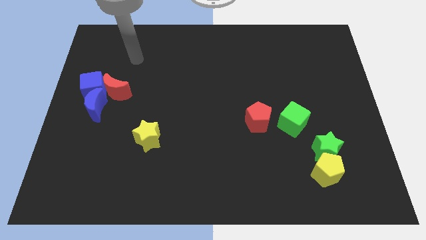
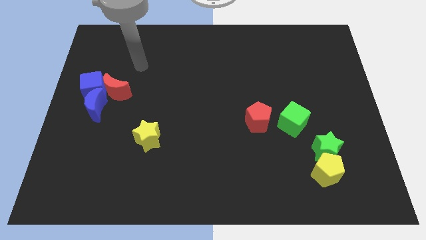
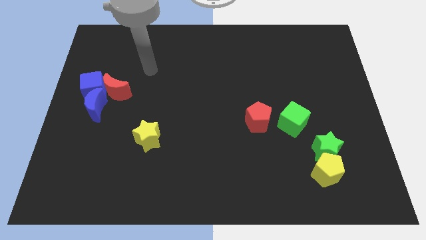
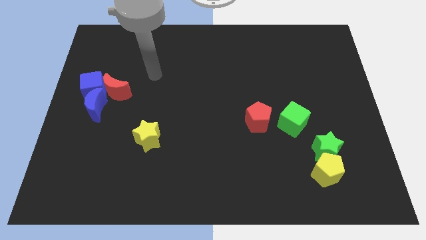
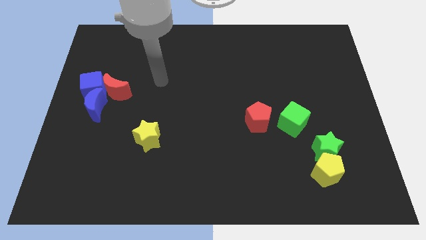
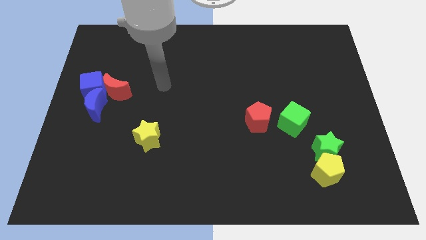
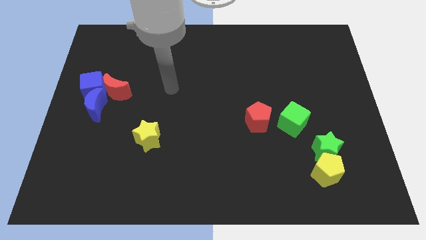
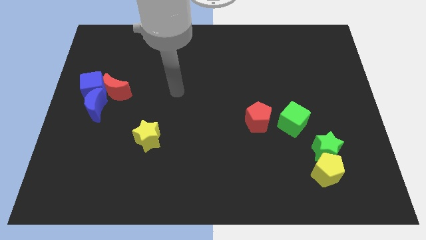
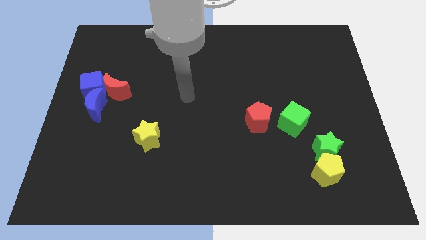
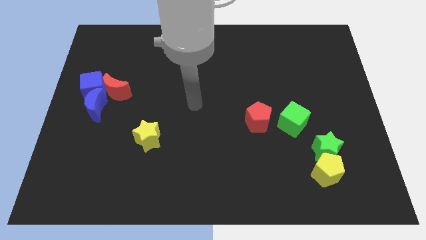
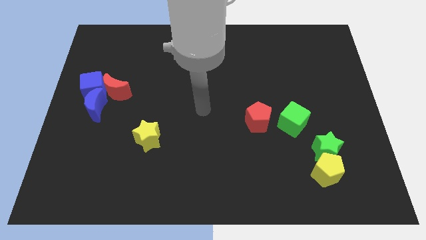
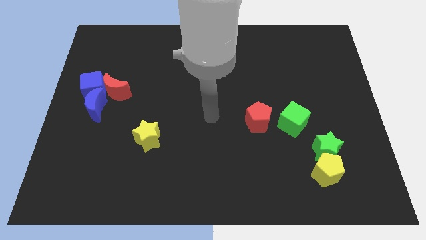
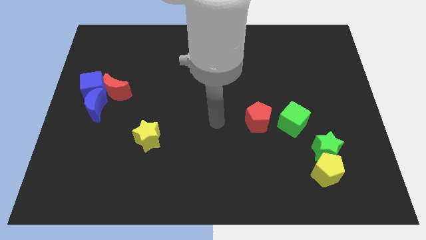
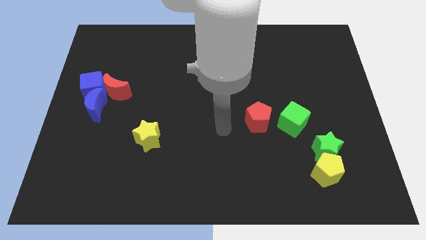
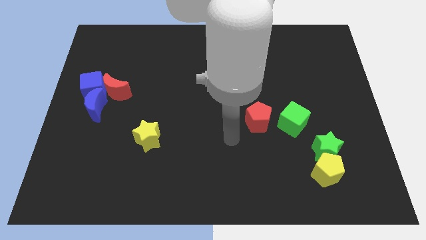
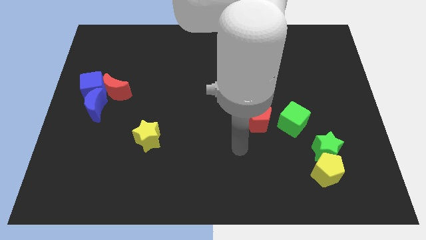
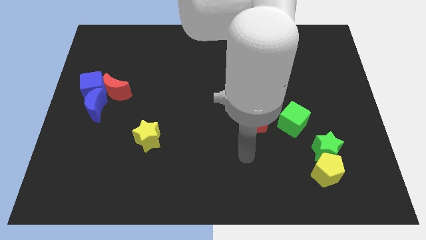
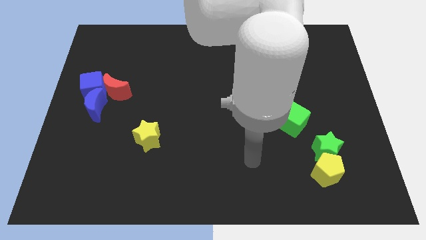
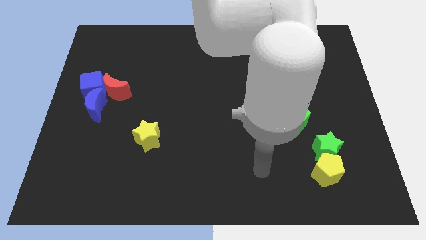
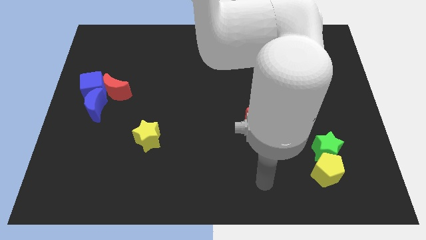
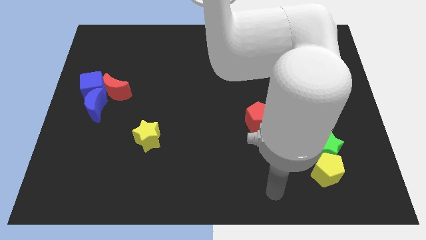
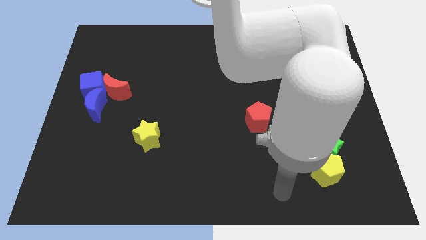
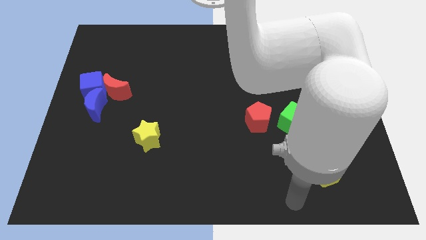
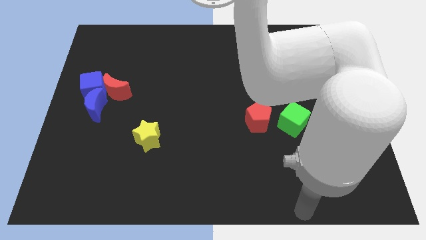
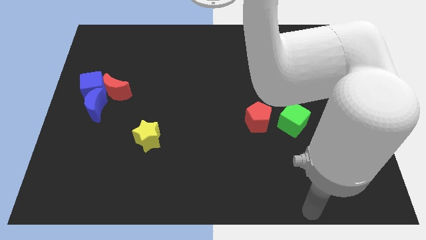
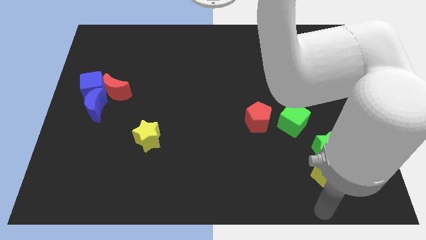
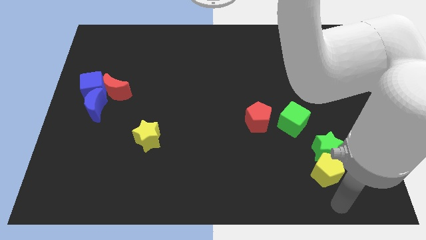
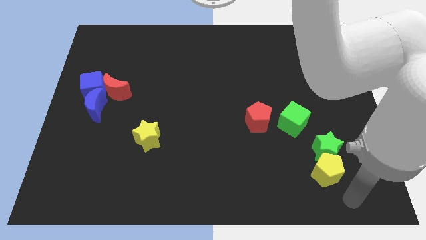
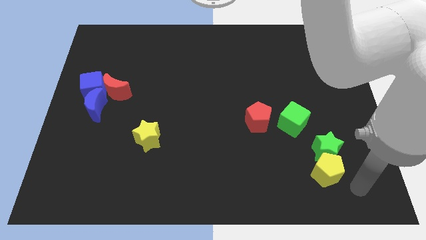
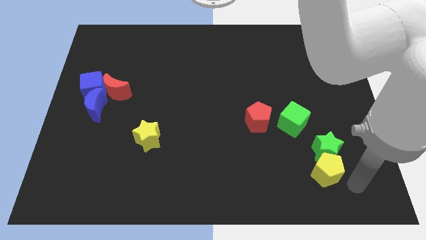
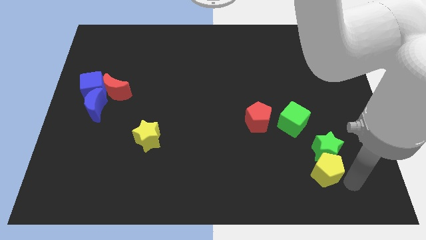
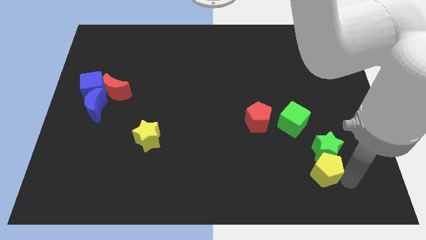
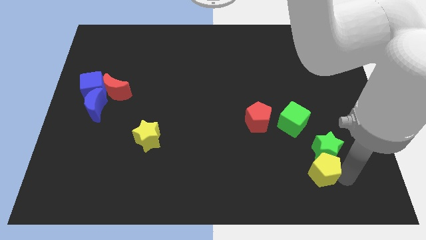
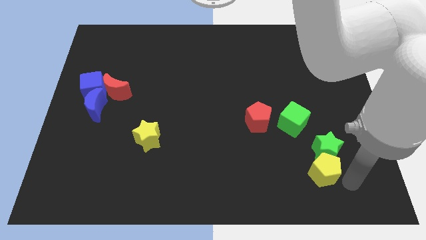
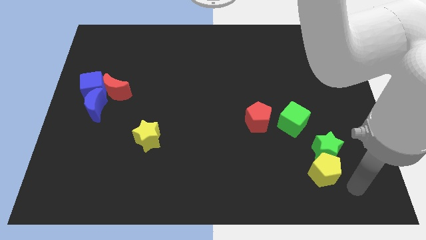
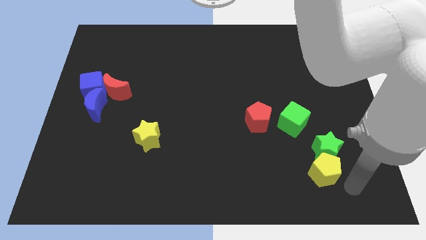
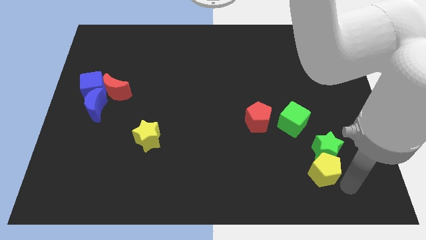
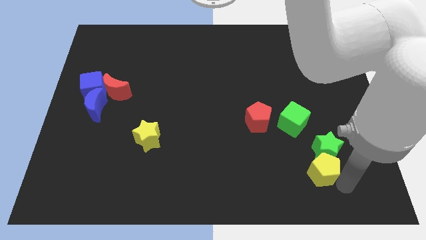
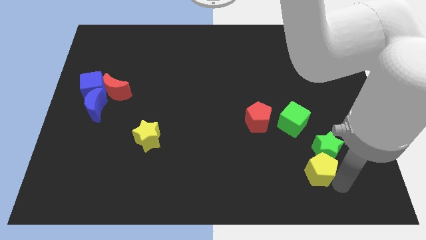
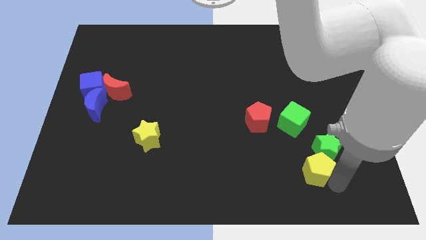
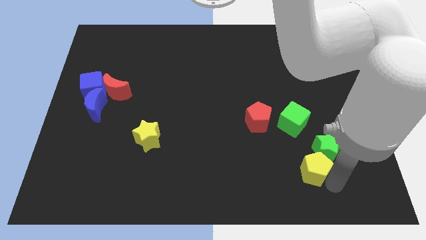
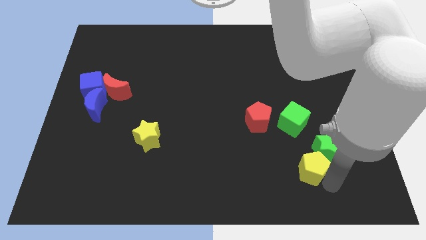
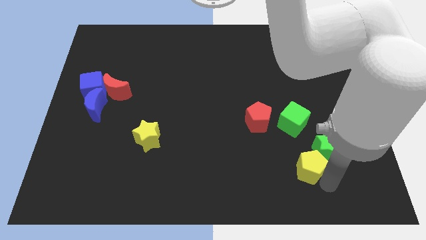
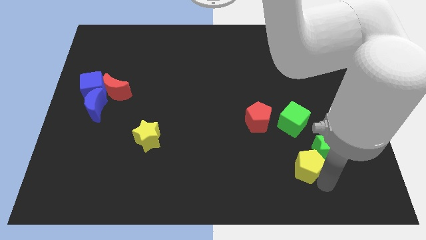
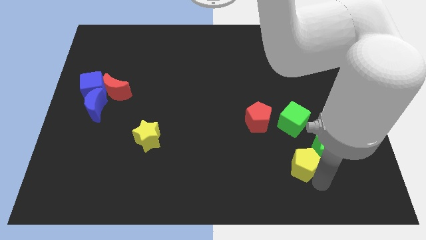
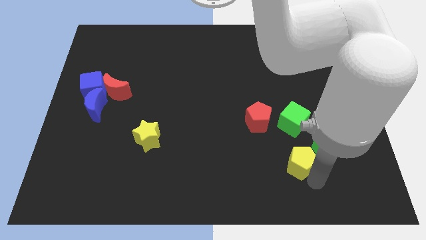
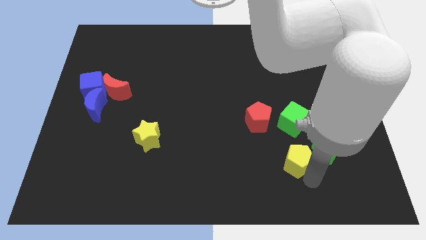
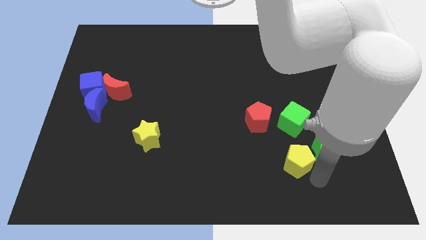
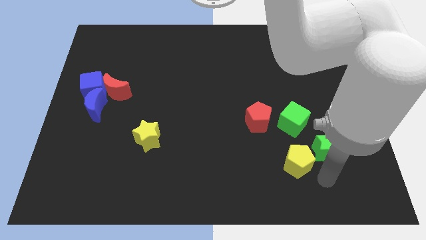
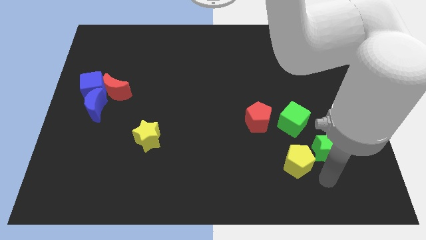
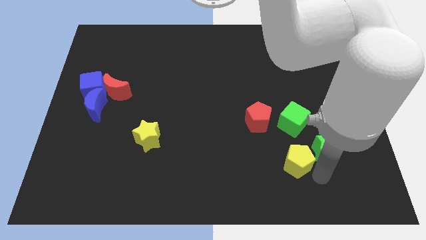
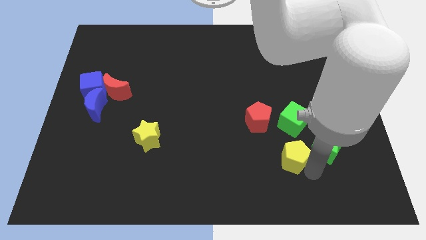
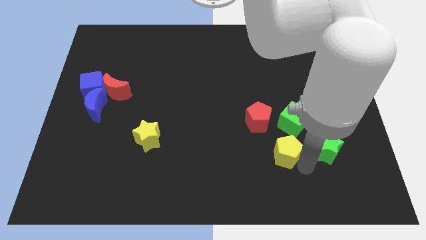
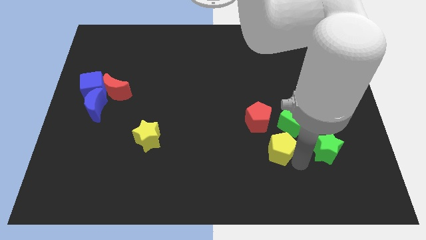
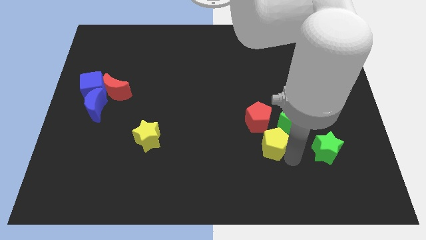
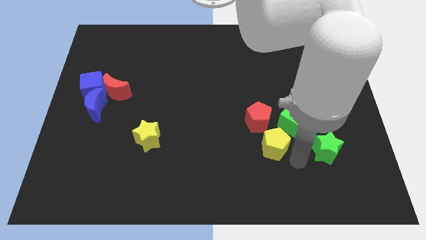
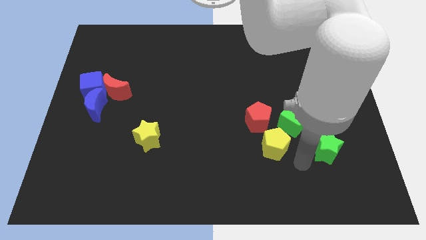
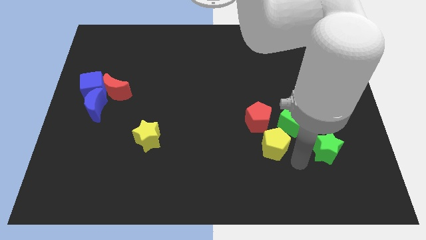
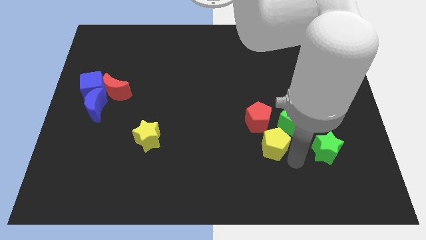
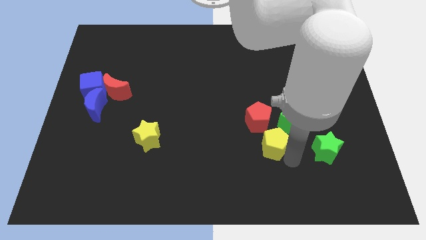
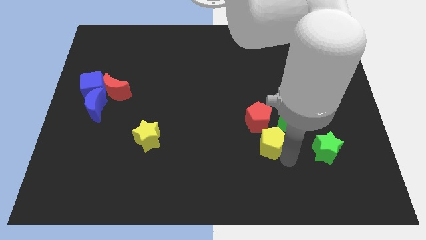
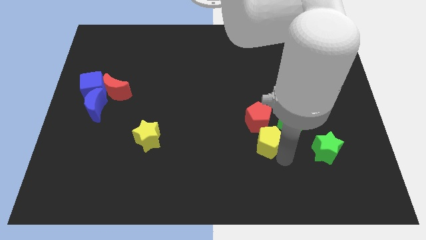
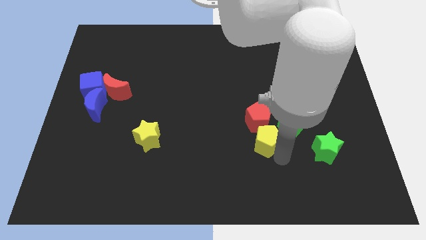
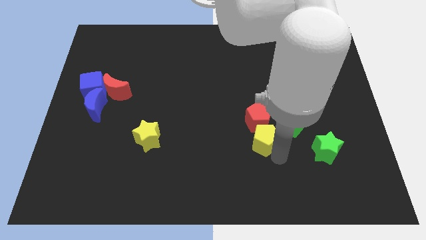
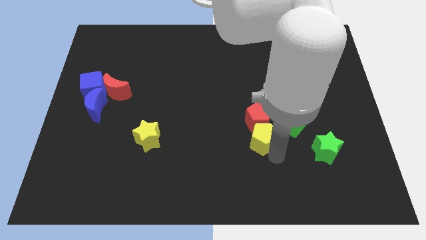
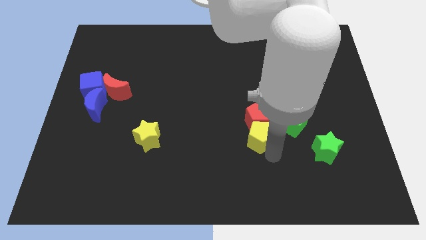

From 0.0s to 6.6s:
push the yellow pentagon to the left of the green cube
